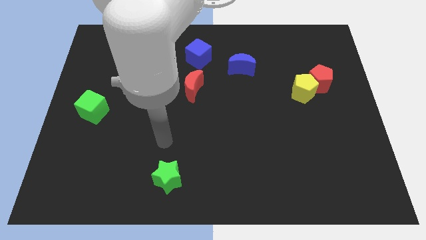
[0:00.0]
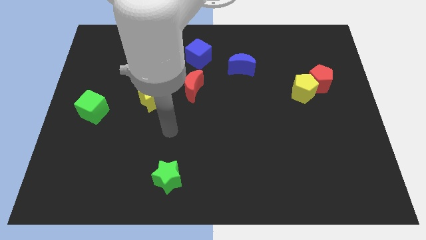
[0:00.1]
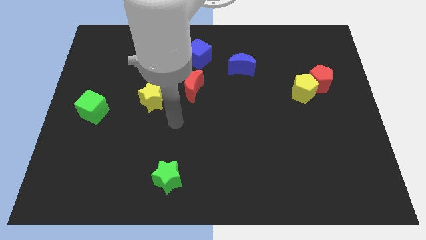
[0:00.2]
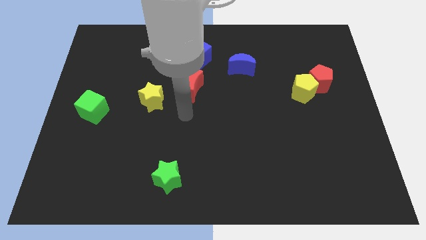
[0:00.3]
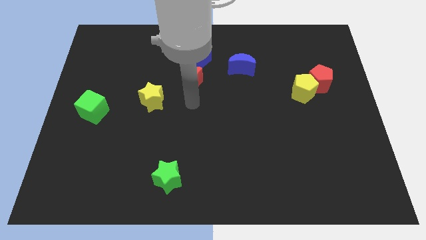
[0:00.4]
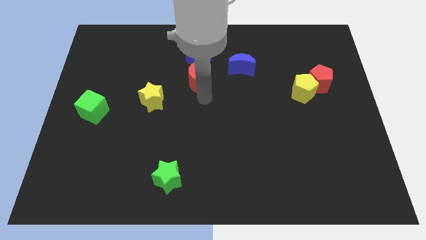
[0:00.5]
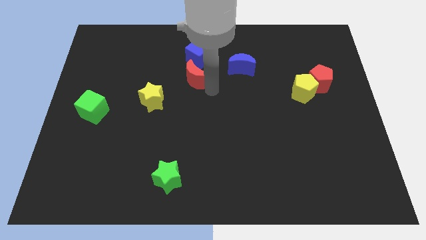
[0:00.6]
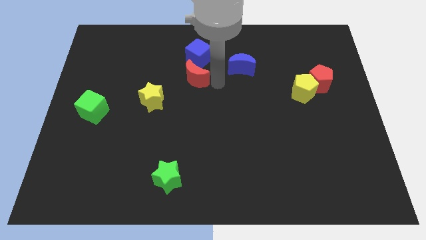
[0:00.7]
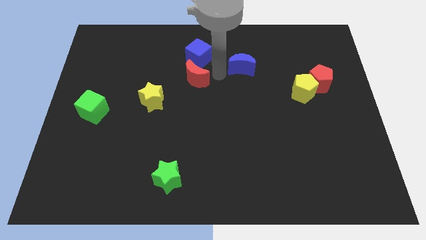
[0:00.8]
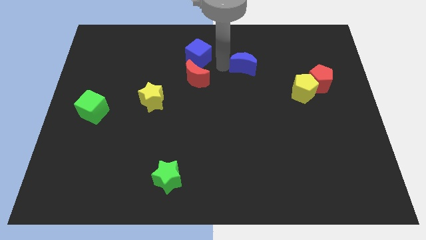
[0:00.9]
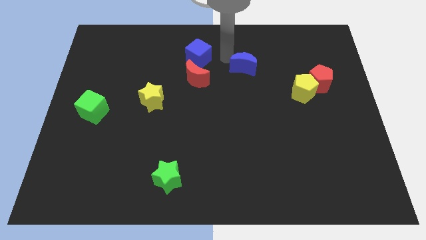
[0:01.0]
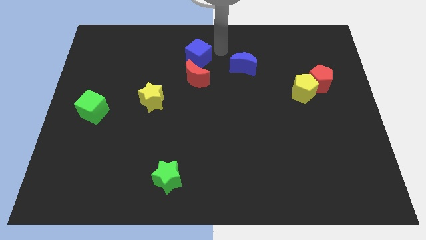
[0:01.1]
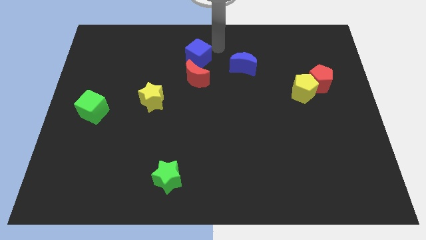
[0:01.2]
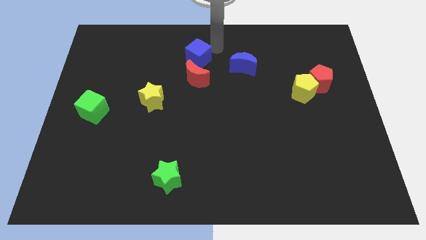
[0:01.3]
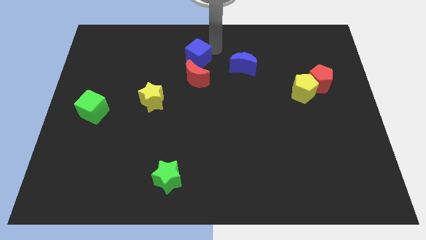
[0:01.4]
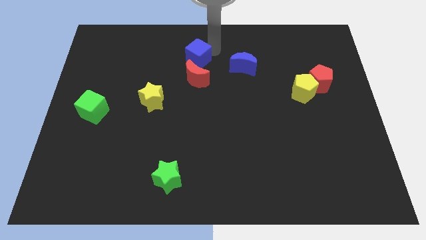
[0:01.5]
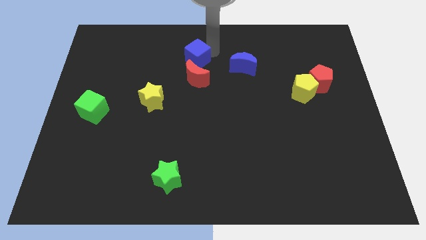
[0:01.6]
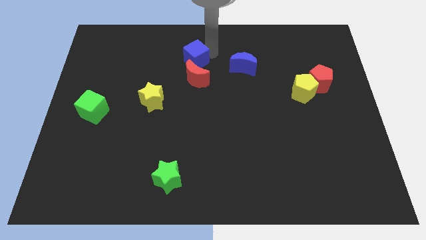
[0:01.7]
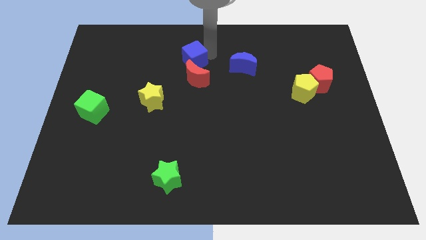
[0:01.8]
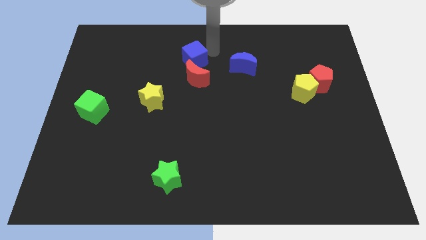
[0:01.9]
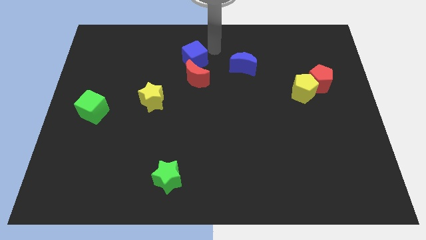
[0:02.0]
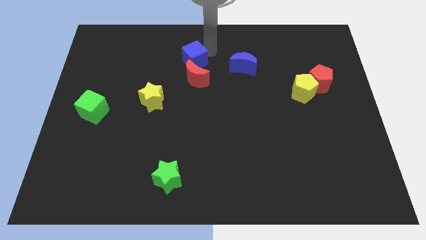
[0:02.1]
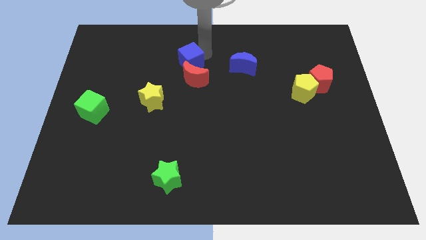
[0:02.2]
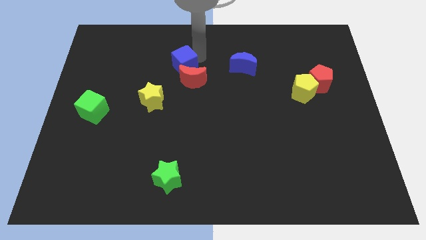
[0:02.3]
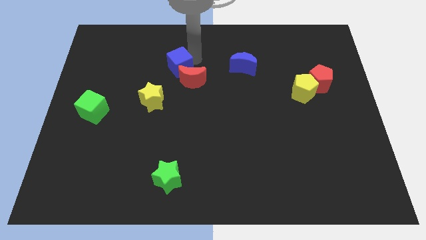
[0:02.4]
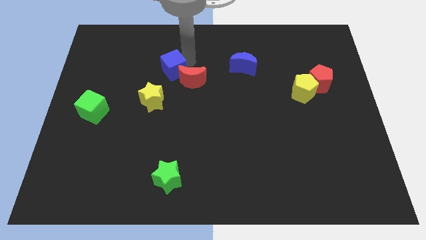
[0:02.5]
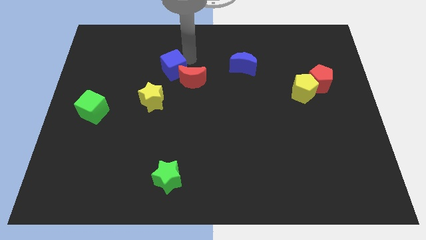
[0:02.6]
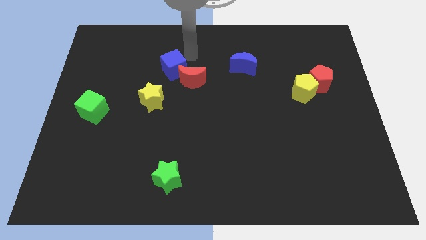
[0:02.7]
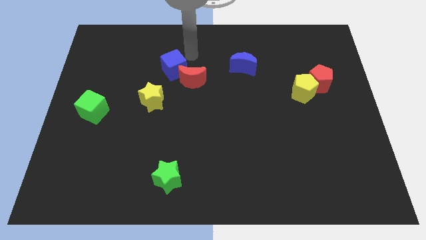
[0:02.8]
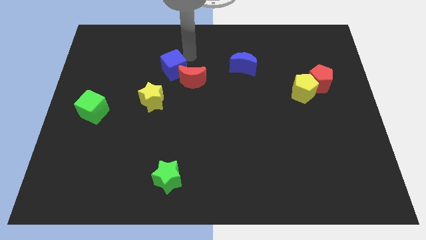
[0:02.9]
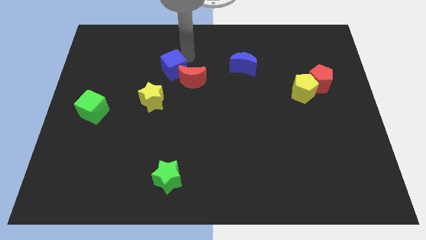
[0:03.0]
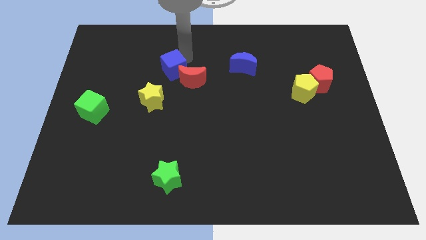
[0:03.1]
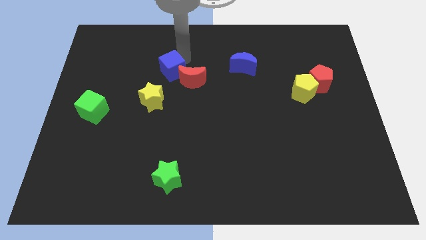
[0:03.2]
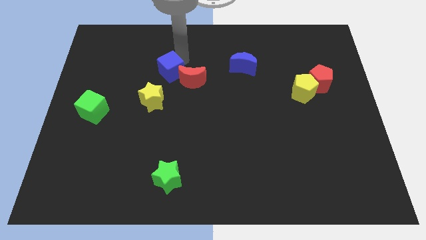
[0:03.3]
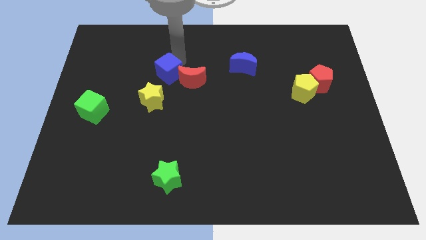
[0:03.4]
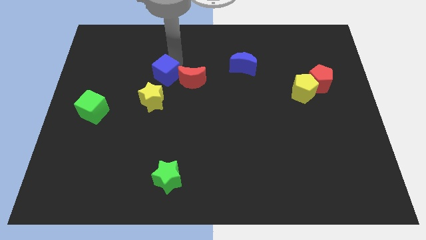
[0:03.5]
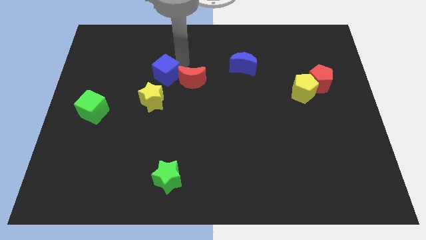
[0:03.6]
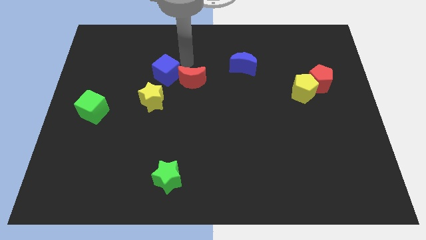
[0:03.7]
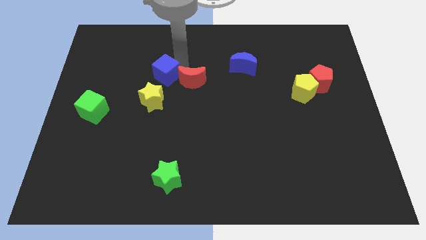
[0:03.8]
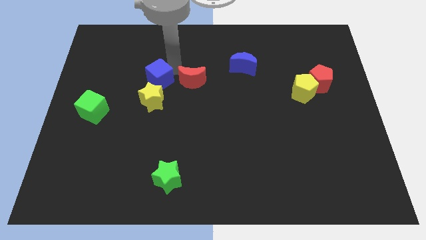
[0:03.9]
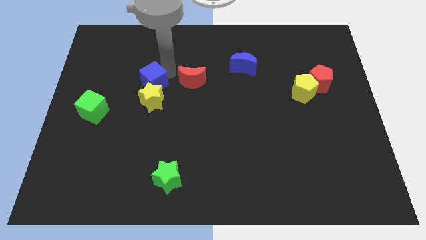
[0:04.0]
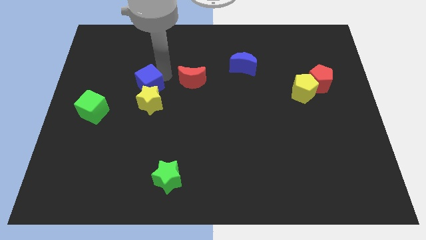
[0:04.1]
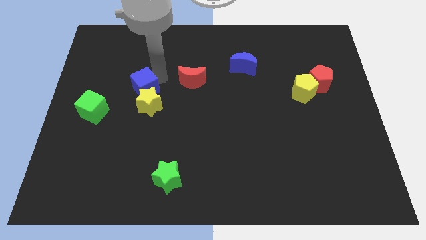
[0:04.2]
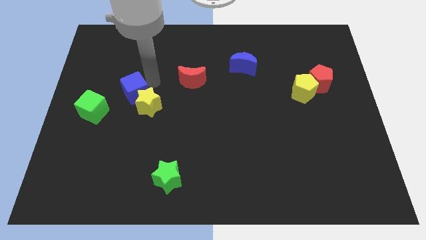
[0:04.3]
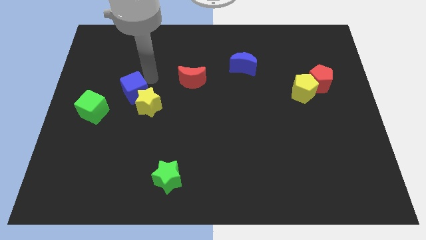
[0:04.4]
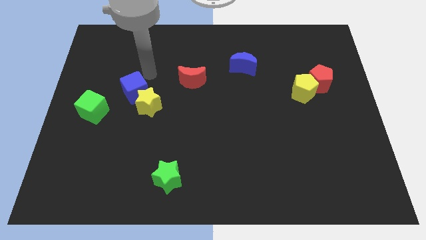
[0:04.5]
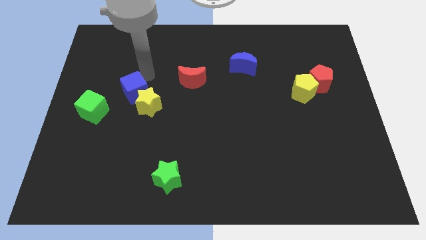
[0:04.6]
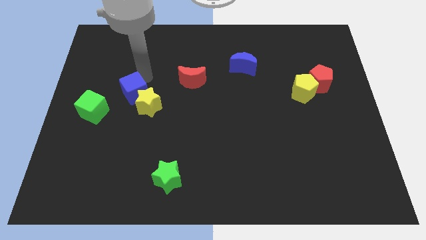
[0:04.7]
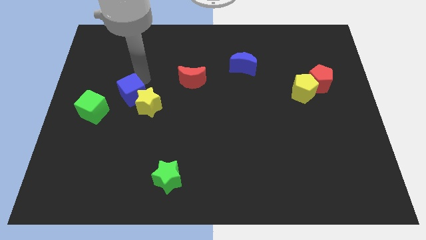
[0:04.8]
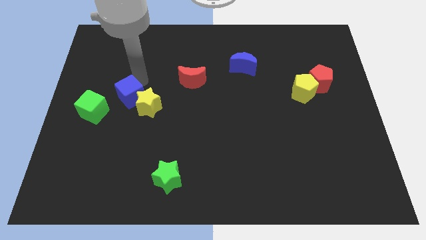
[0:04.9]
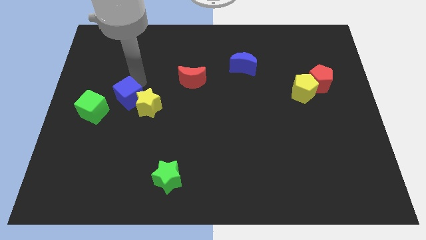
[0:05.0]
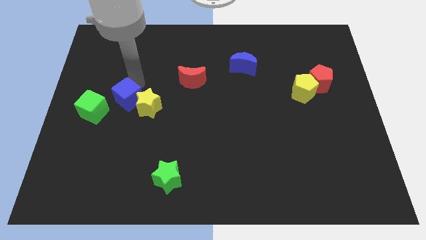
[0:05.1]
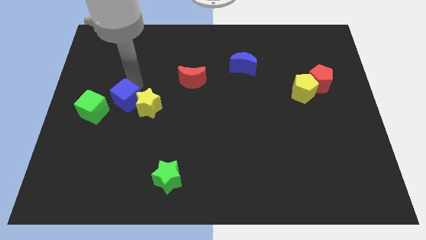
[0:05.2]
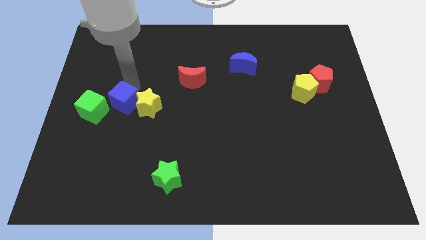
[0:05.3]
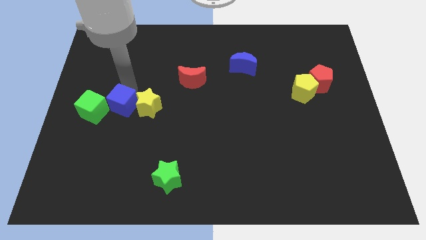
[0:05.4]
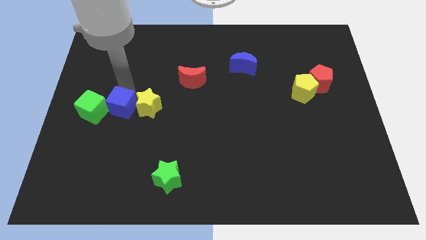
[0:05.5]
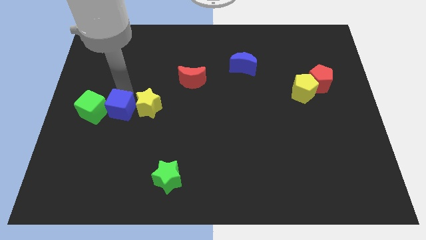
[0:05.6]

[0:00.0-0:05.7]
push the blue cube to the bottom right side of the green cube

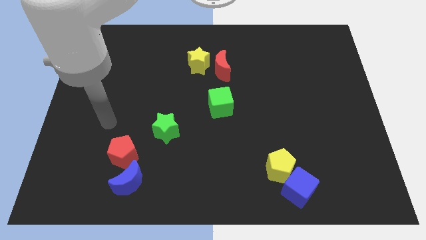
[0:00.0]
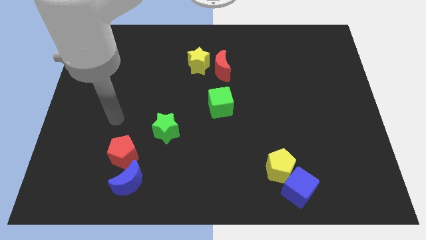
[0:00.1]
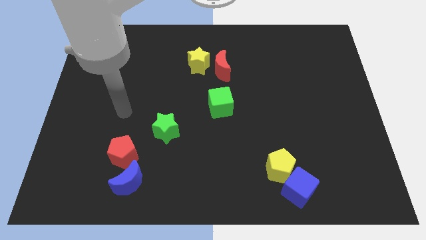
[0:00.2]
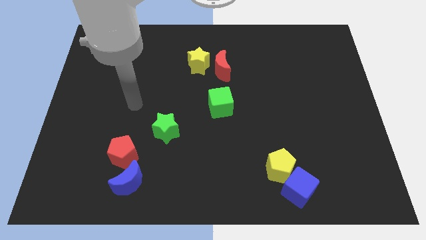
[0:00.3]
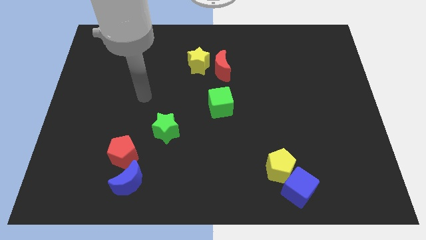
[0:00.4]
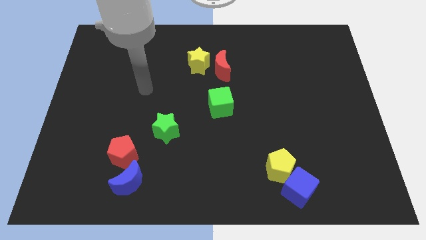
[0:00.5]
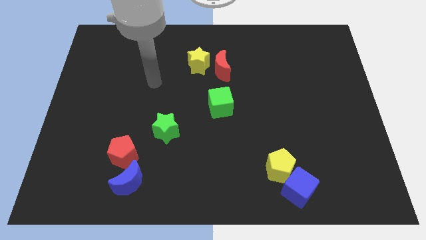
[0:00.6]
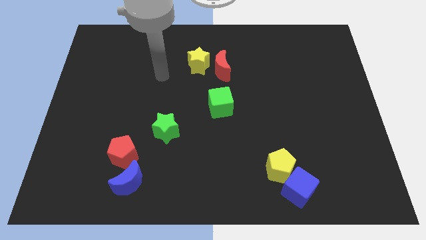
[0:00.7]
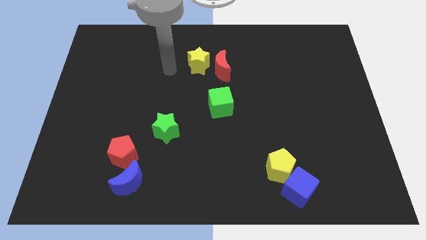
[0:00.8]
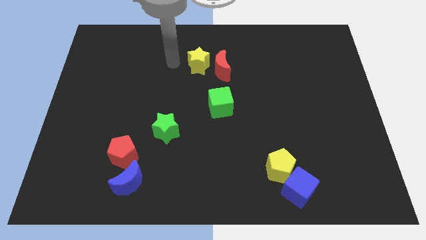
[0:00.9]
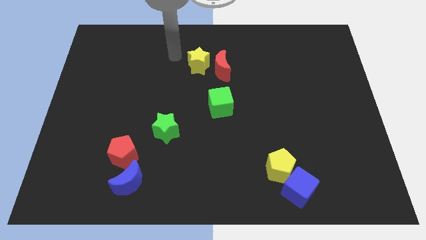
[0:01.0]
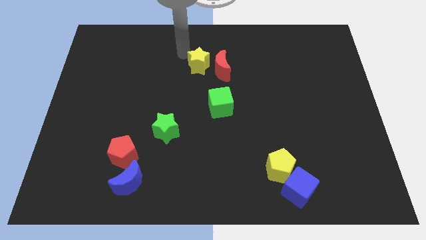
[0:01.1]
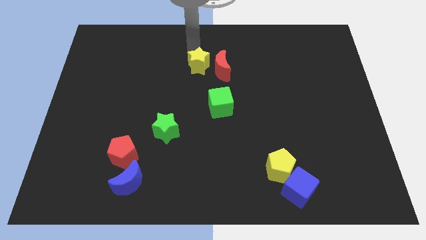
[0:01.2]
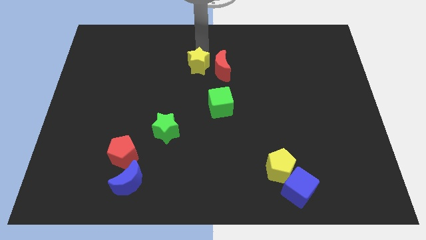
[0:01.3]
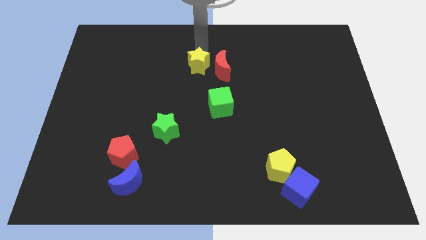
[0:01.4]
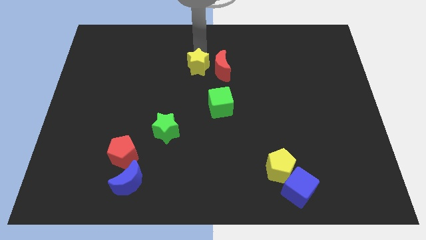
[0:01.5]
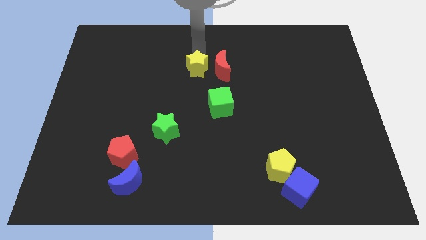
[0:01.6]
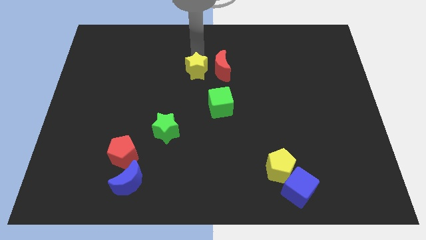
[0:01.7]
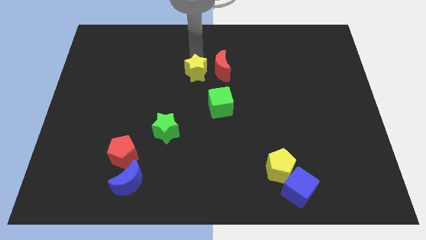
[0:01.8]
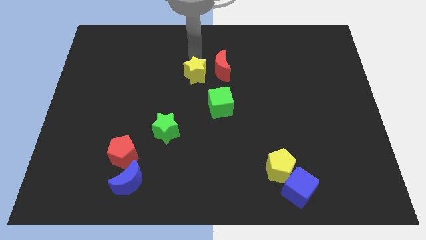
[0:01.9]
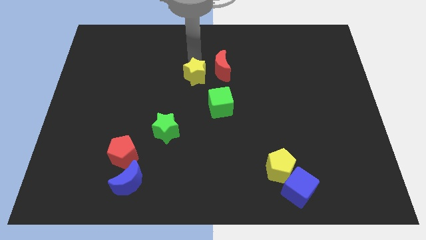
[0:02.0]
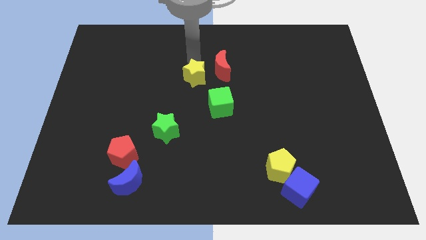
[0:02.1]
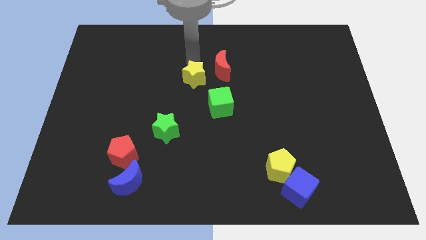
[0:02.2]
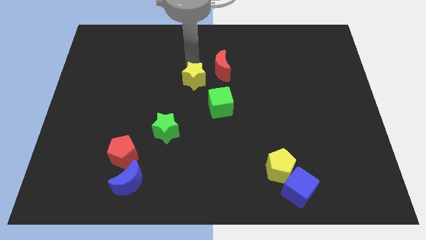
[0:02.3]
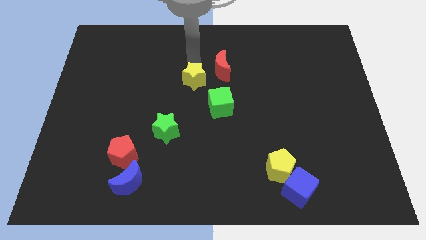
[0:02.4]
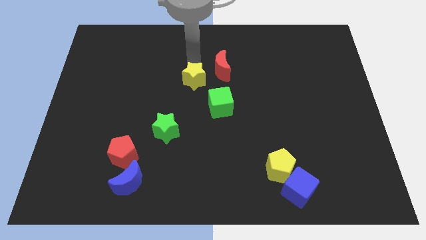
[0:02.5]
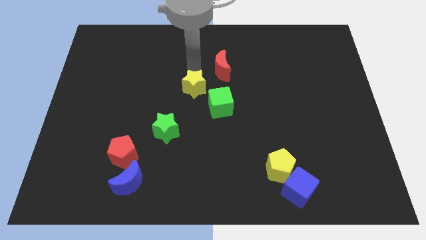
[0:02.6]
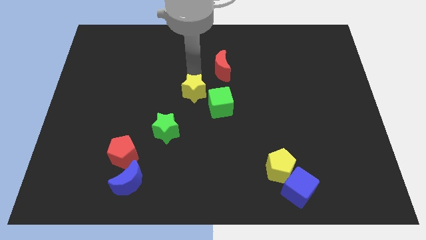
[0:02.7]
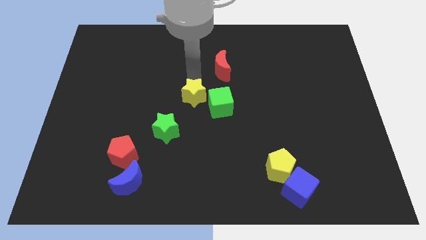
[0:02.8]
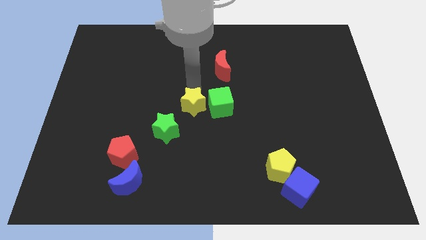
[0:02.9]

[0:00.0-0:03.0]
move the yellow star diagonally down and to the left of the green cube
